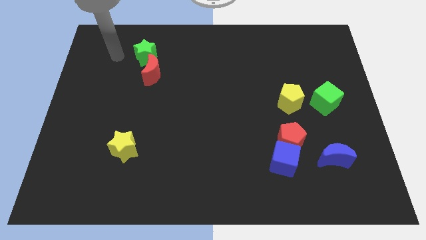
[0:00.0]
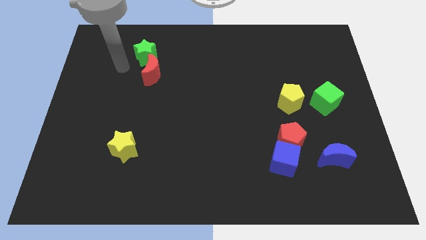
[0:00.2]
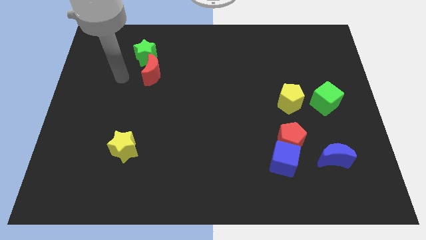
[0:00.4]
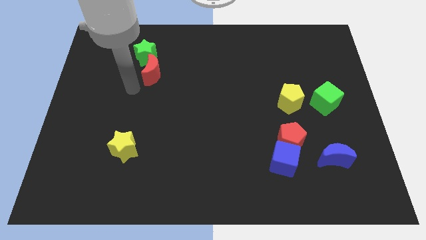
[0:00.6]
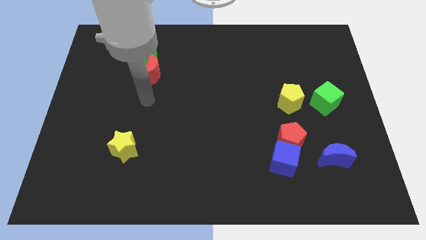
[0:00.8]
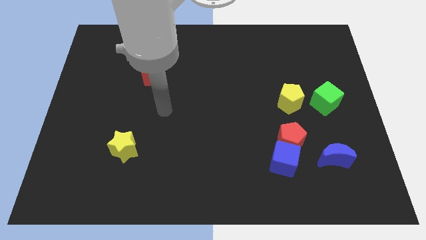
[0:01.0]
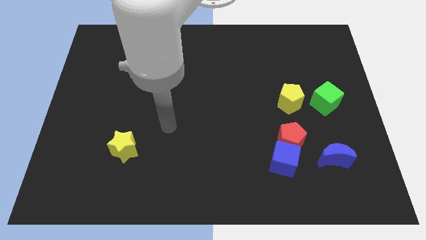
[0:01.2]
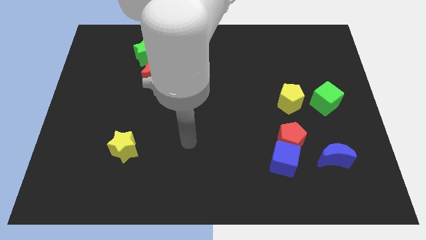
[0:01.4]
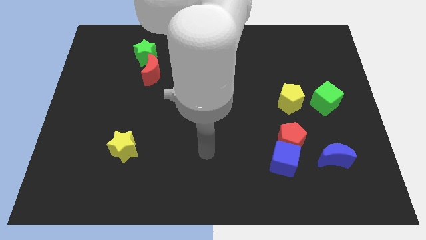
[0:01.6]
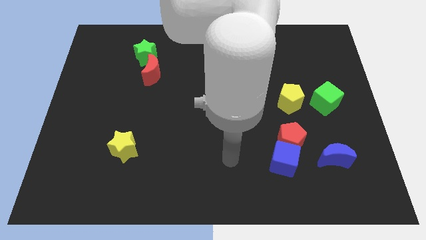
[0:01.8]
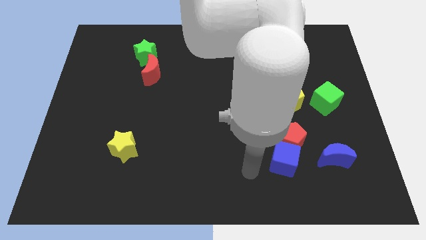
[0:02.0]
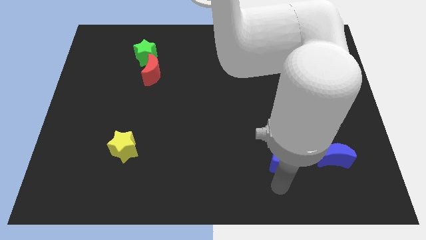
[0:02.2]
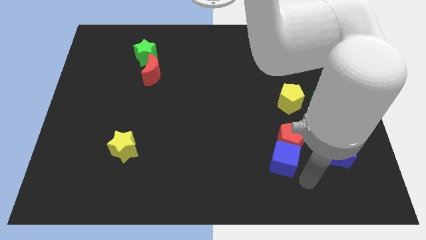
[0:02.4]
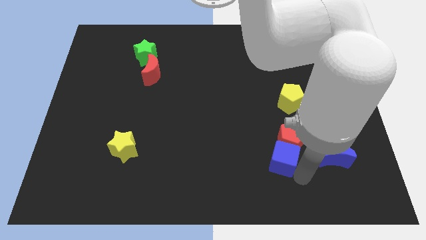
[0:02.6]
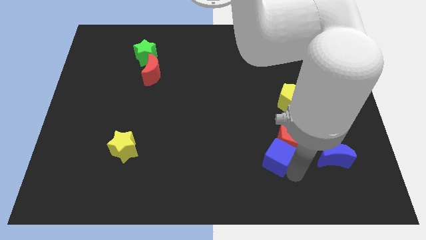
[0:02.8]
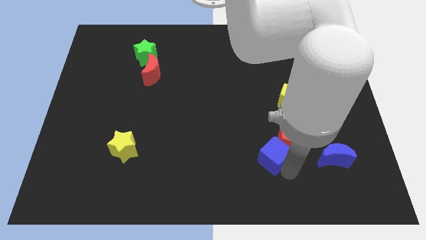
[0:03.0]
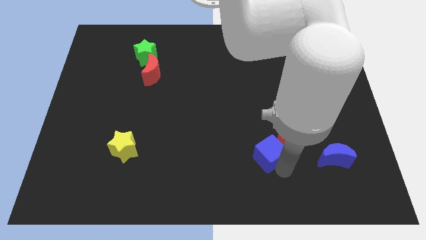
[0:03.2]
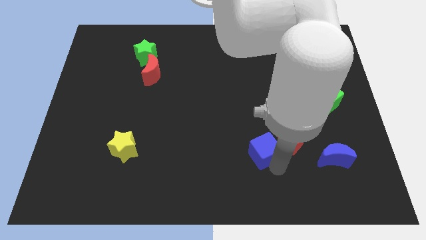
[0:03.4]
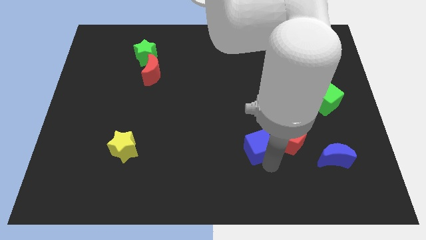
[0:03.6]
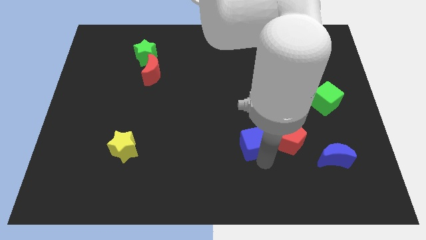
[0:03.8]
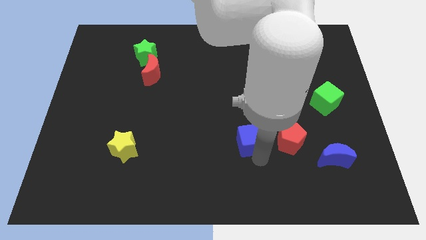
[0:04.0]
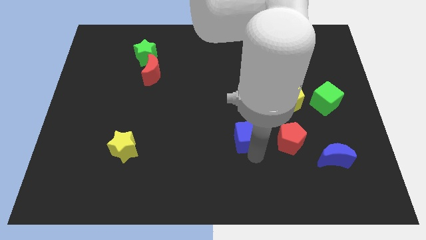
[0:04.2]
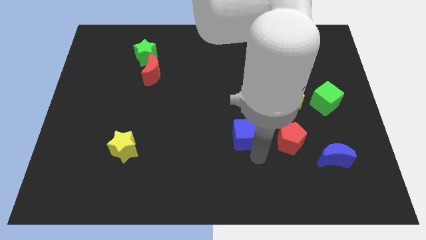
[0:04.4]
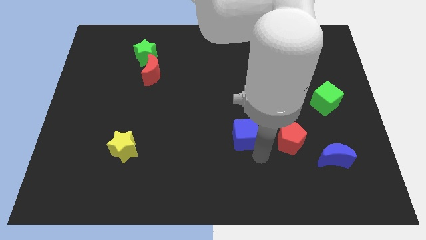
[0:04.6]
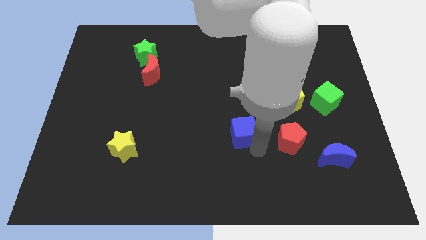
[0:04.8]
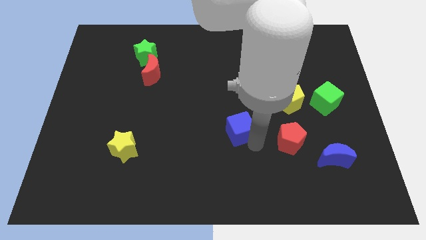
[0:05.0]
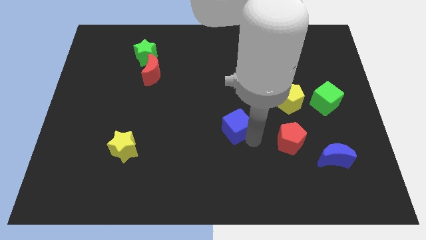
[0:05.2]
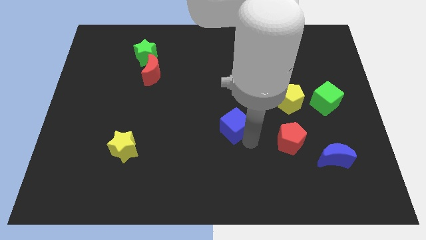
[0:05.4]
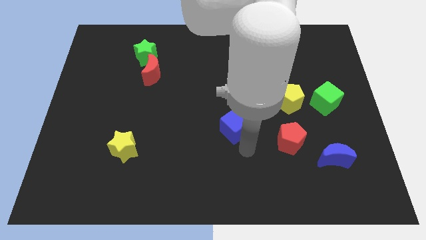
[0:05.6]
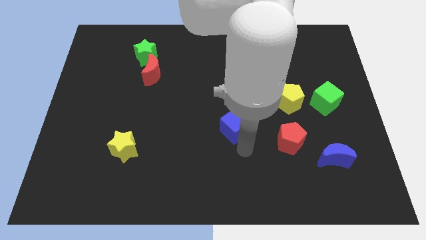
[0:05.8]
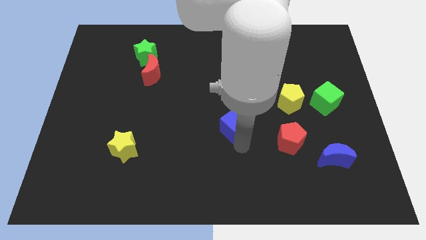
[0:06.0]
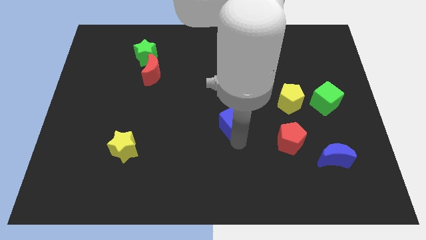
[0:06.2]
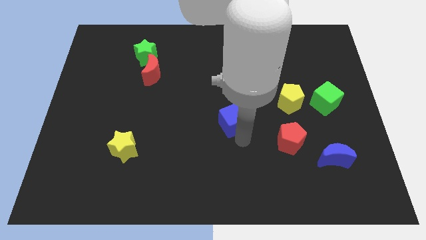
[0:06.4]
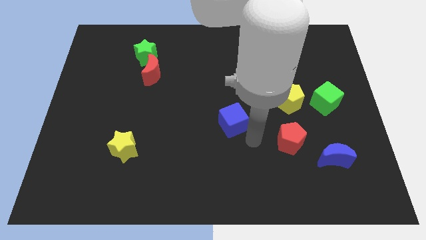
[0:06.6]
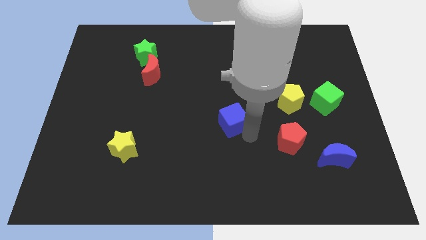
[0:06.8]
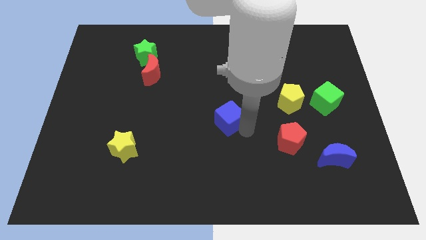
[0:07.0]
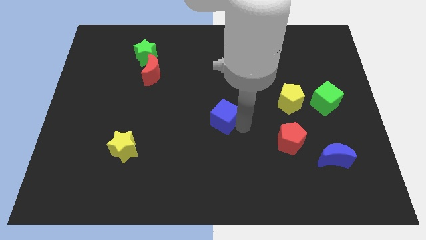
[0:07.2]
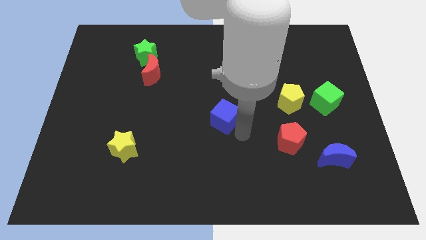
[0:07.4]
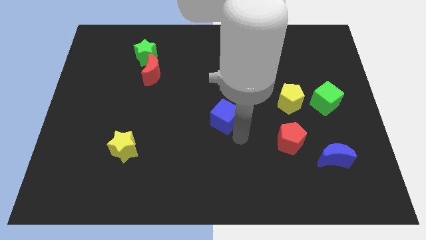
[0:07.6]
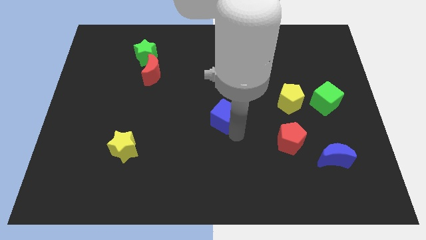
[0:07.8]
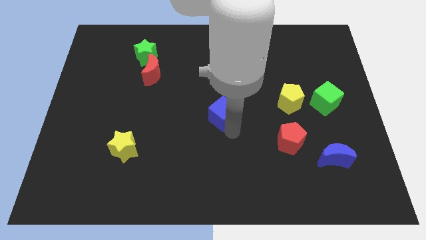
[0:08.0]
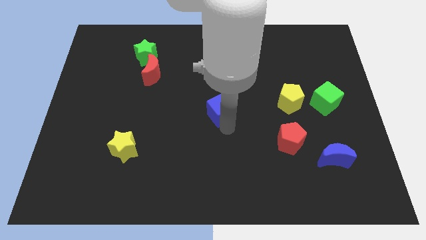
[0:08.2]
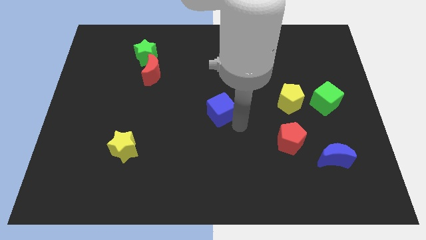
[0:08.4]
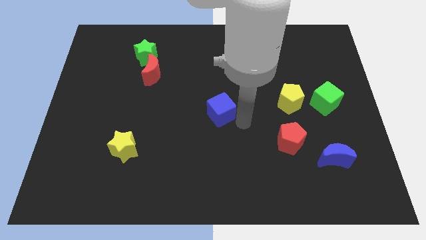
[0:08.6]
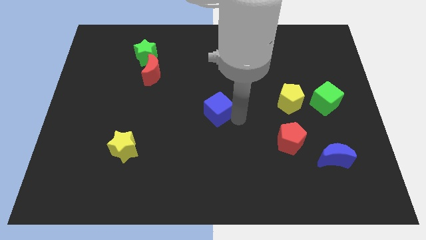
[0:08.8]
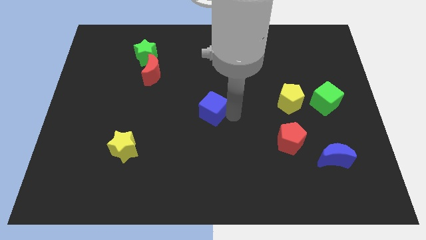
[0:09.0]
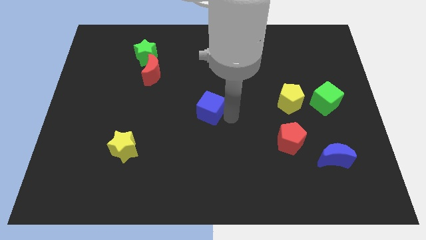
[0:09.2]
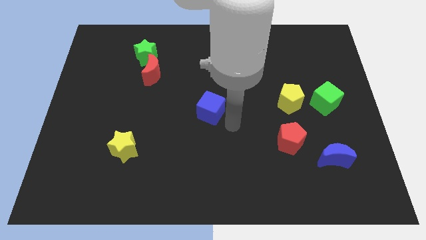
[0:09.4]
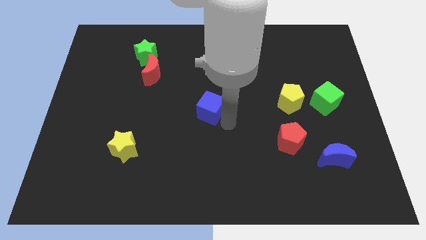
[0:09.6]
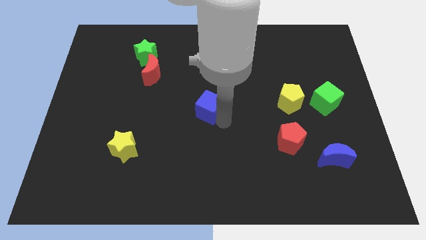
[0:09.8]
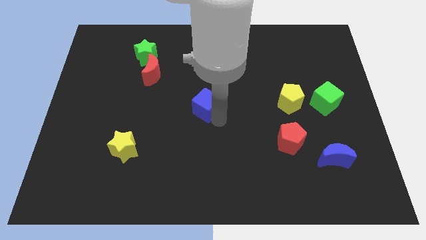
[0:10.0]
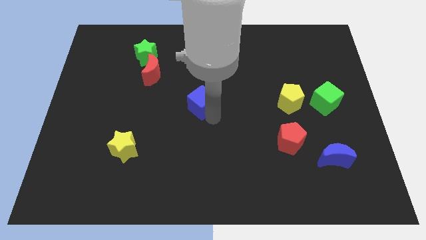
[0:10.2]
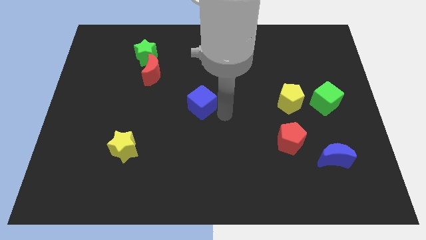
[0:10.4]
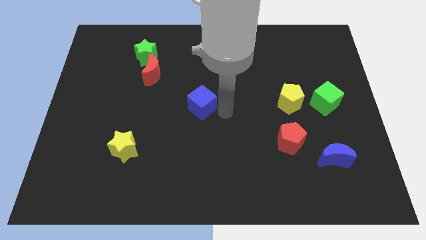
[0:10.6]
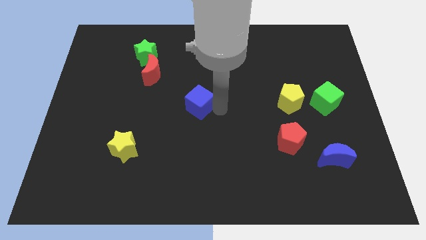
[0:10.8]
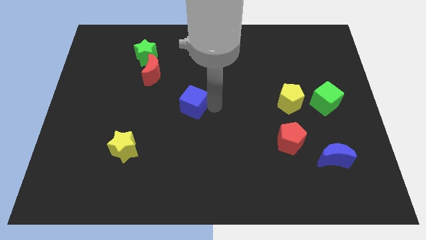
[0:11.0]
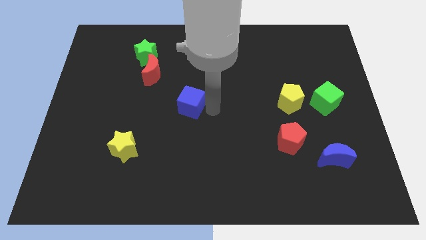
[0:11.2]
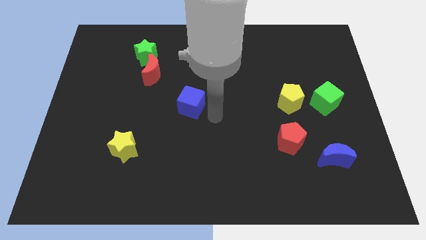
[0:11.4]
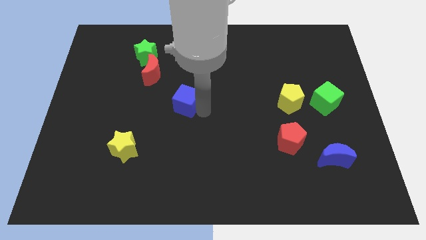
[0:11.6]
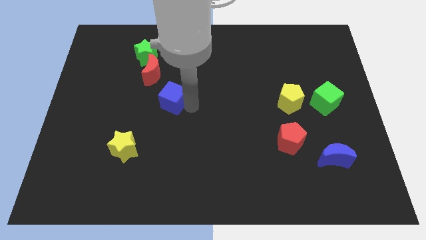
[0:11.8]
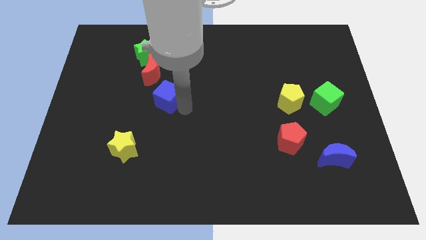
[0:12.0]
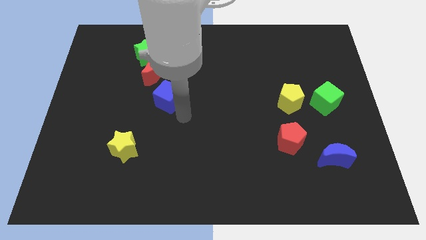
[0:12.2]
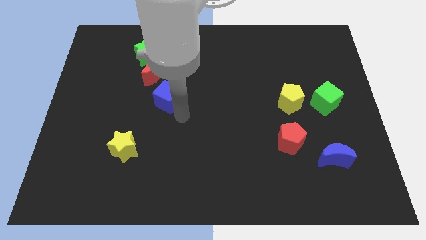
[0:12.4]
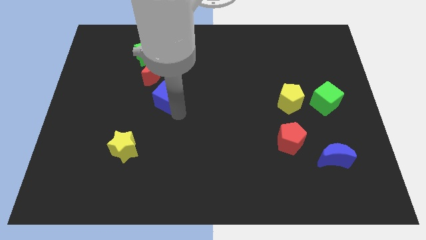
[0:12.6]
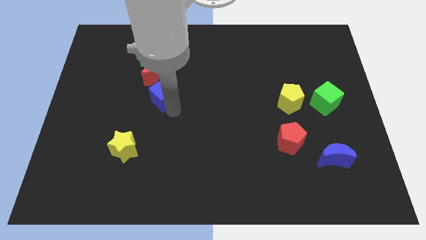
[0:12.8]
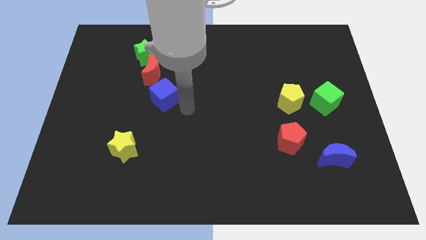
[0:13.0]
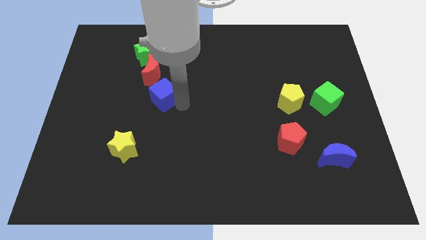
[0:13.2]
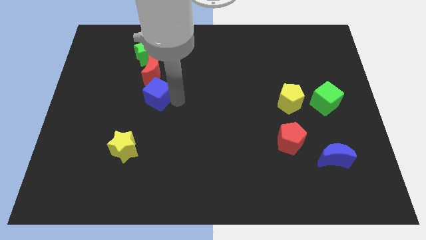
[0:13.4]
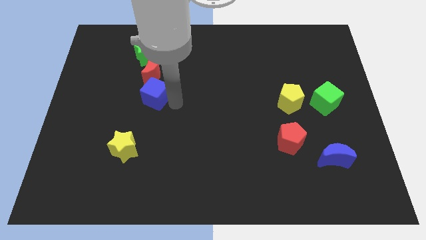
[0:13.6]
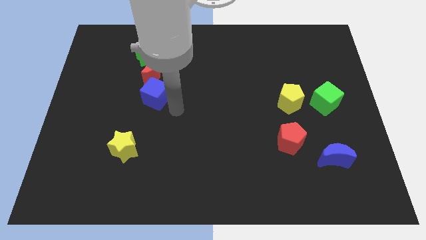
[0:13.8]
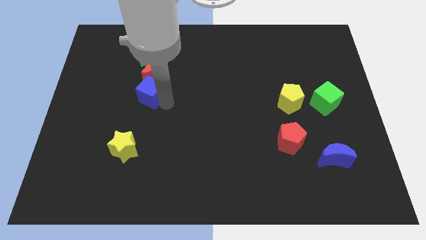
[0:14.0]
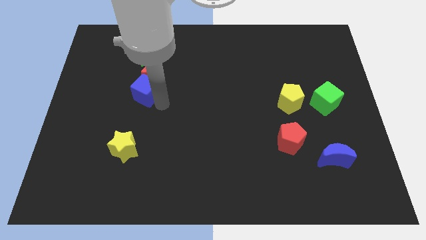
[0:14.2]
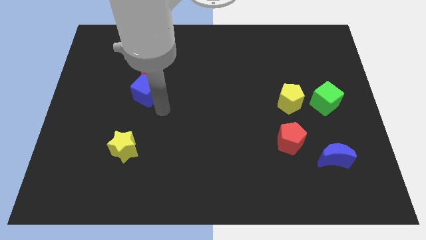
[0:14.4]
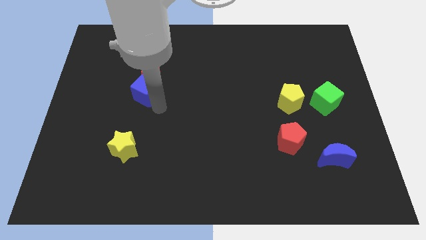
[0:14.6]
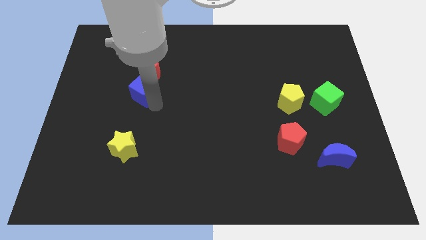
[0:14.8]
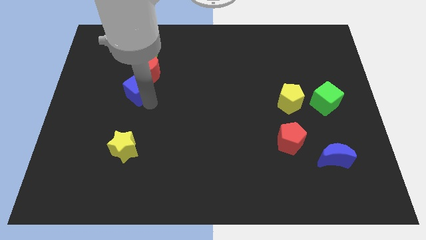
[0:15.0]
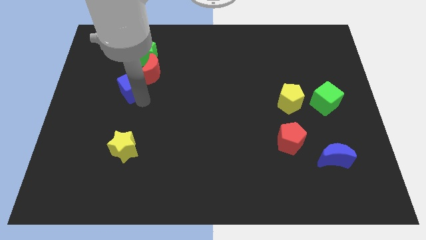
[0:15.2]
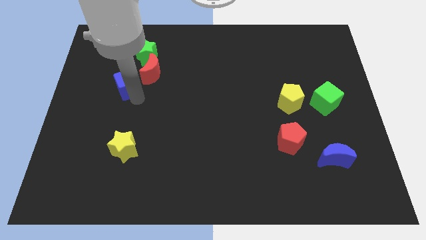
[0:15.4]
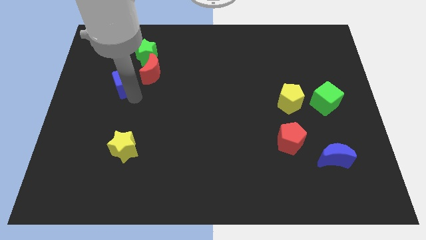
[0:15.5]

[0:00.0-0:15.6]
put the blue cube to the bottom left side of the green star

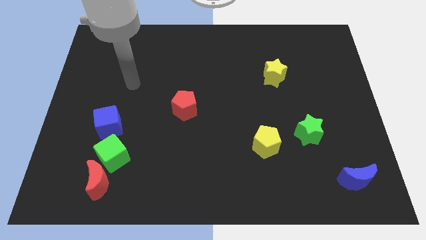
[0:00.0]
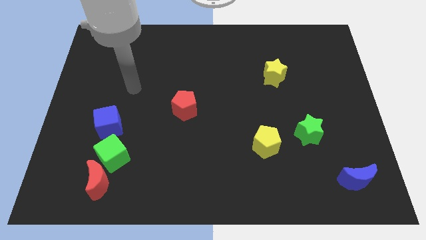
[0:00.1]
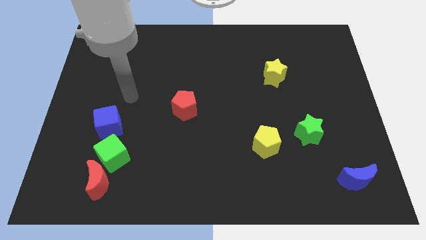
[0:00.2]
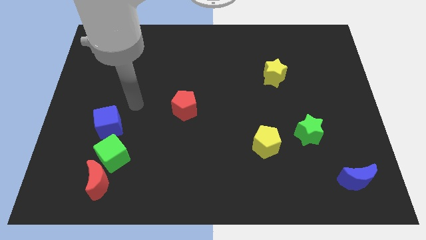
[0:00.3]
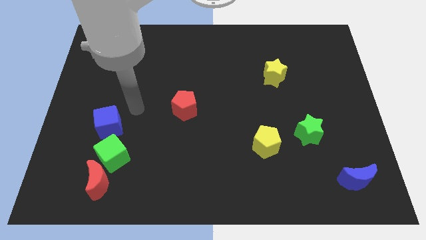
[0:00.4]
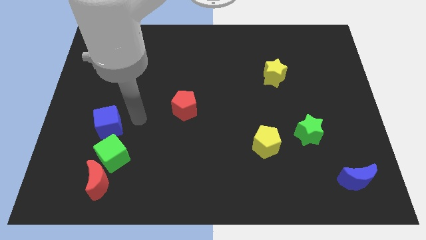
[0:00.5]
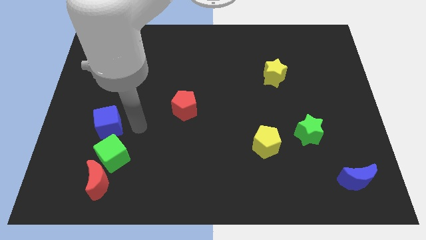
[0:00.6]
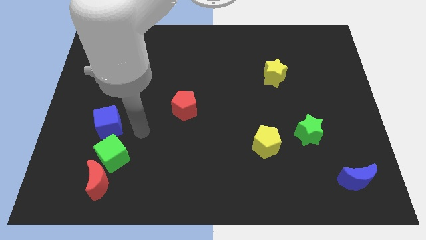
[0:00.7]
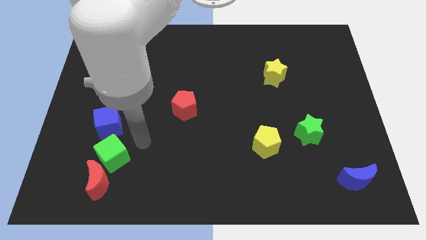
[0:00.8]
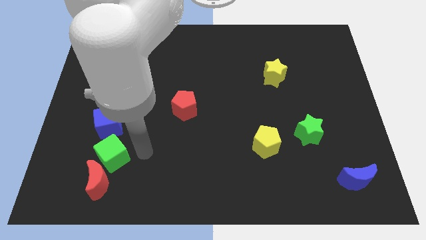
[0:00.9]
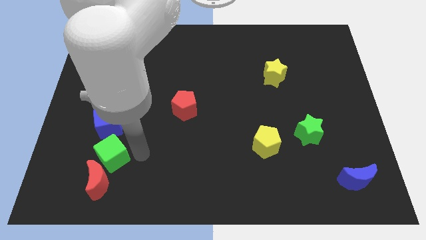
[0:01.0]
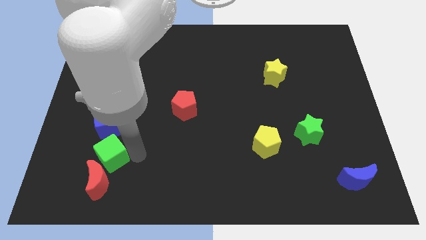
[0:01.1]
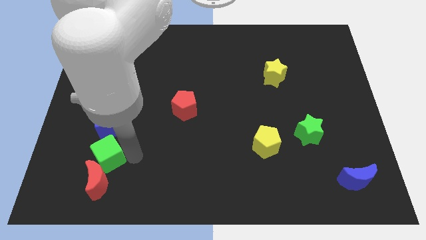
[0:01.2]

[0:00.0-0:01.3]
move the green cube to the top left of the red moon
